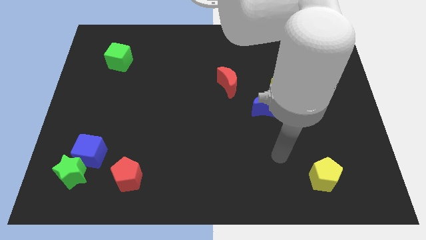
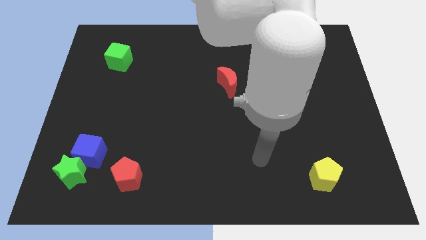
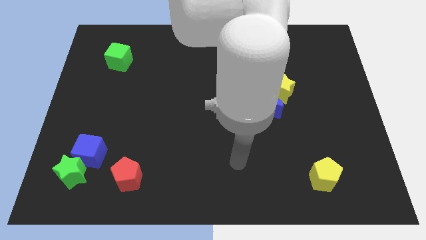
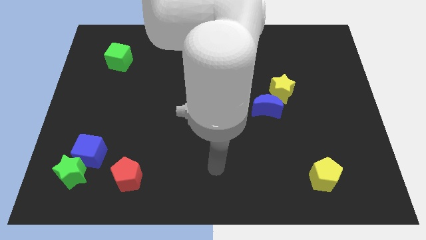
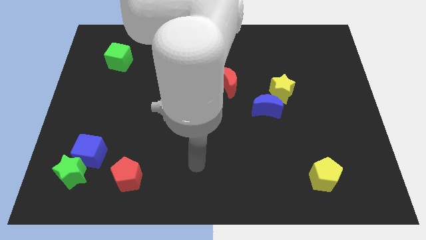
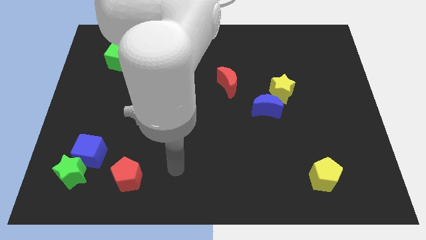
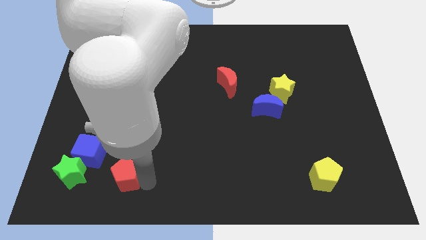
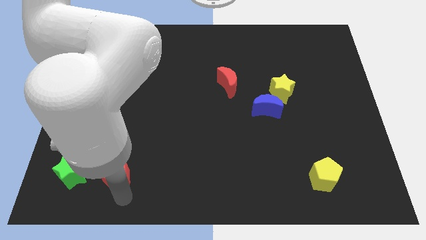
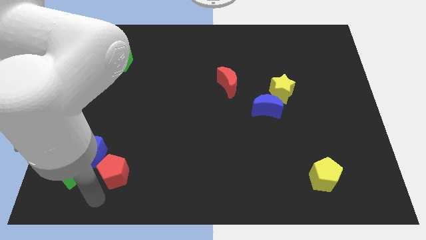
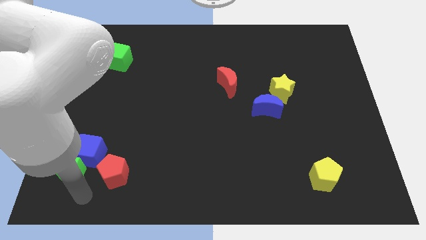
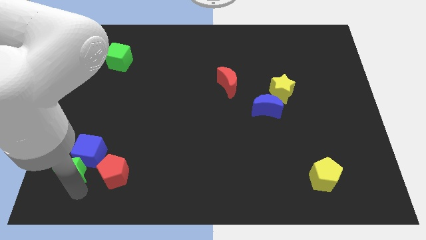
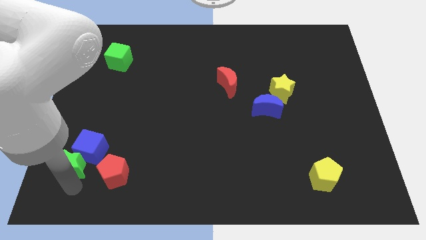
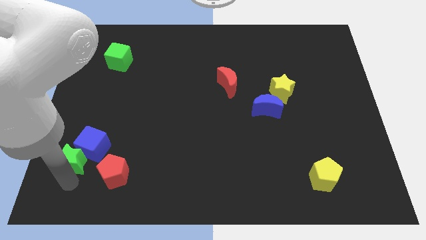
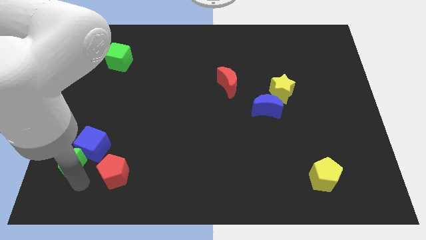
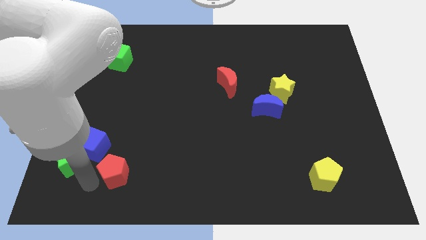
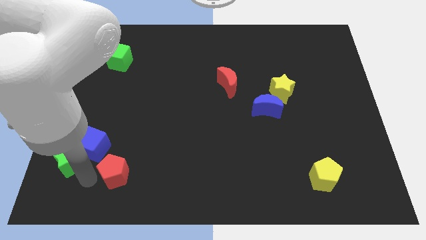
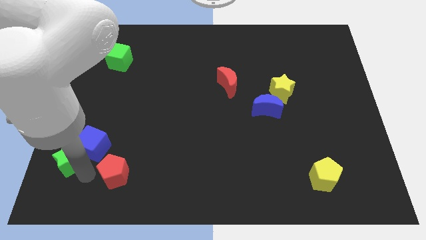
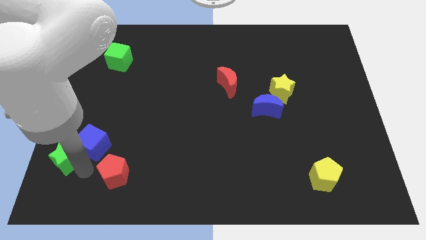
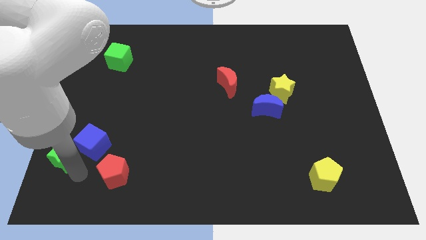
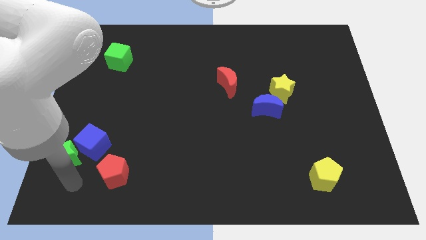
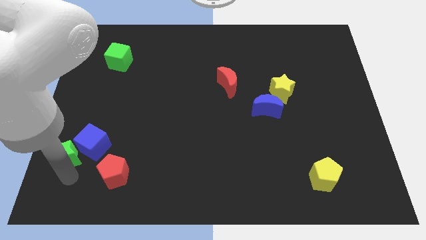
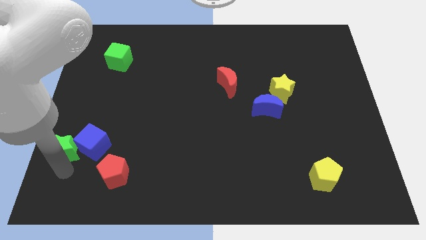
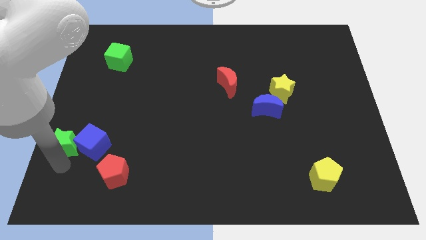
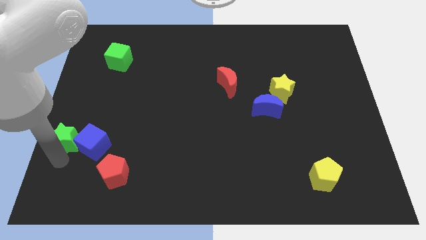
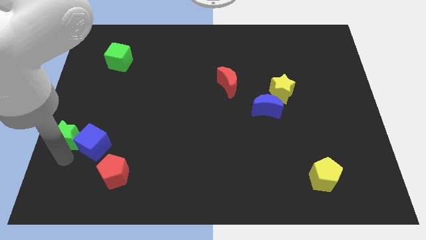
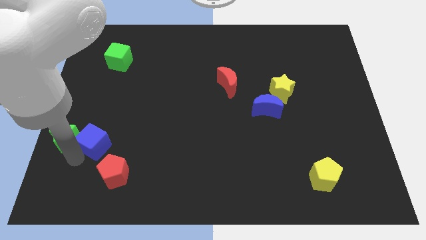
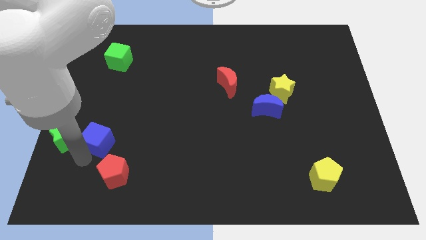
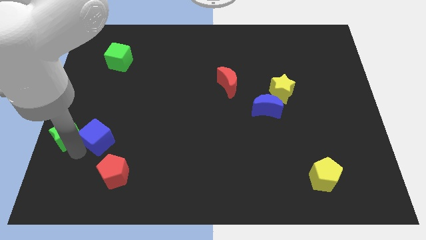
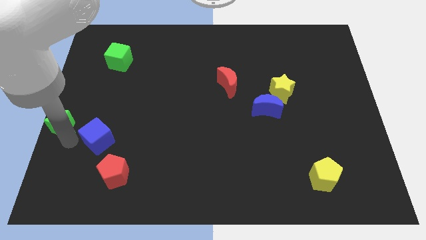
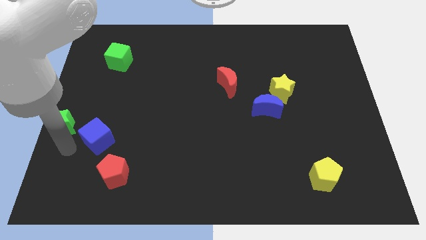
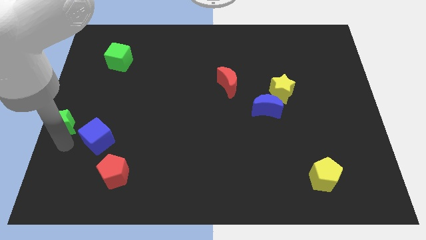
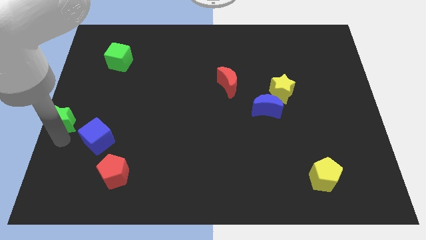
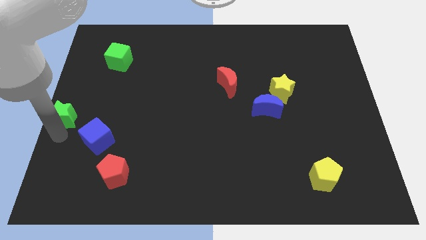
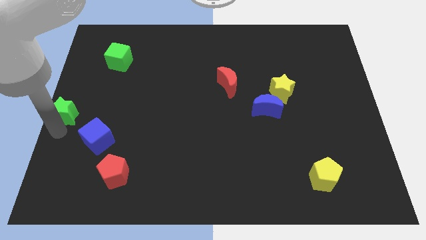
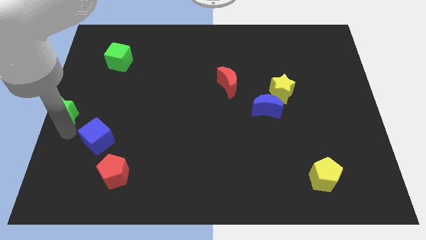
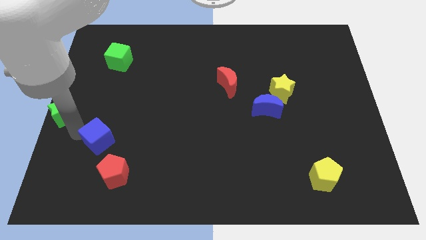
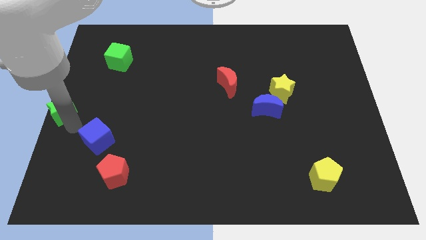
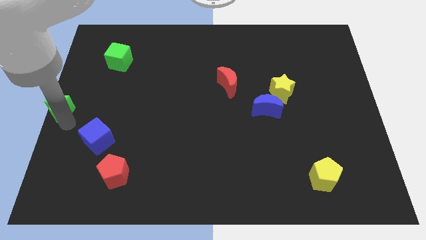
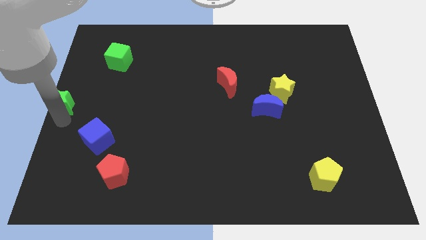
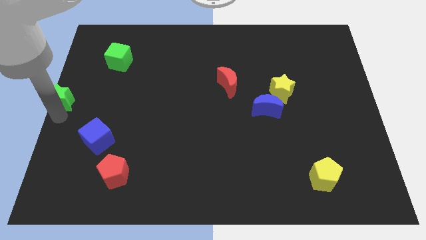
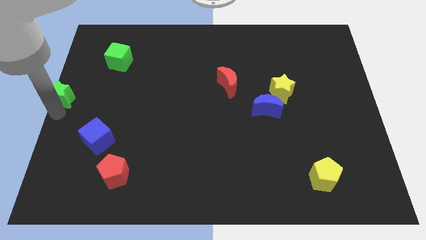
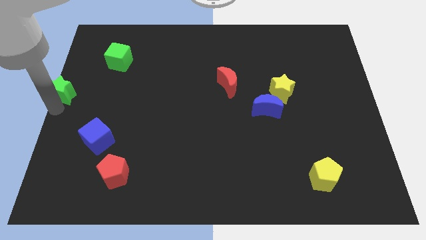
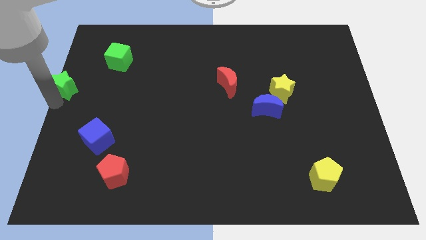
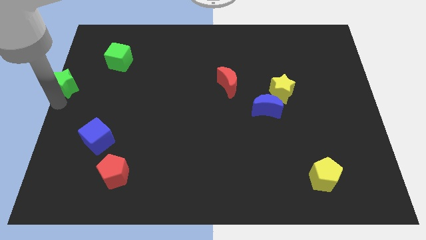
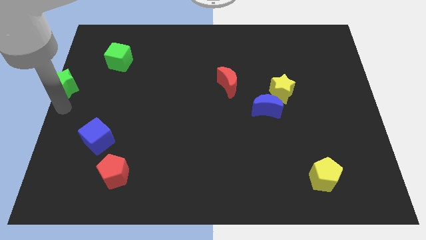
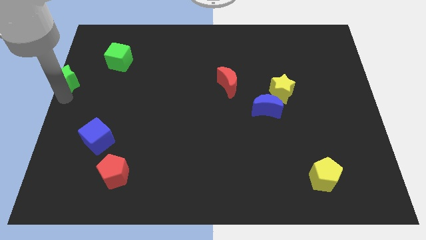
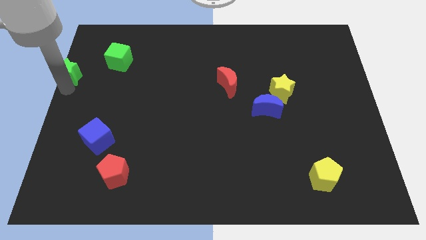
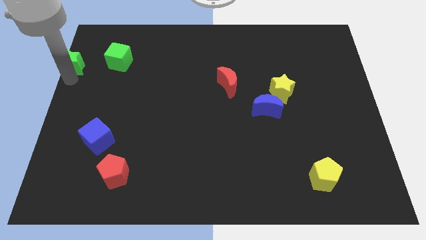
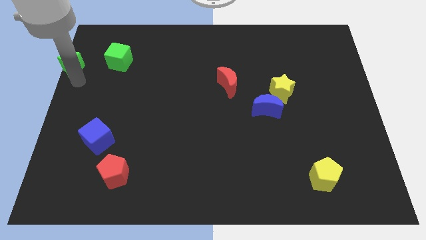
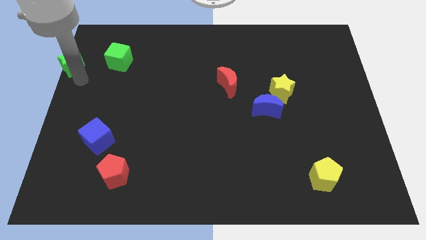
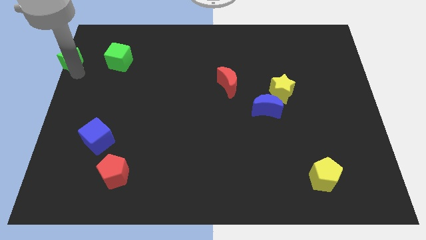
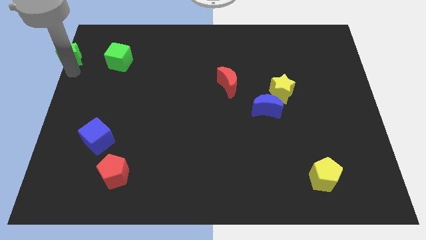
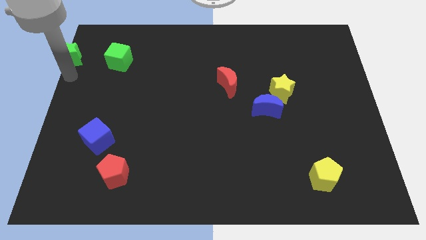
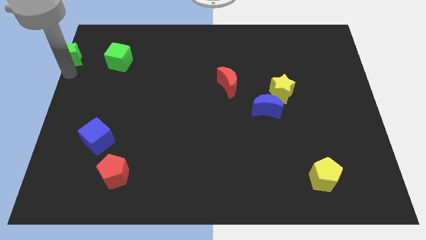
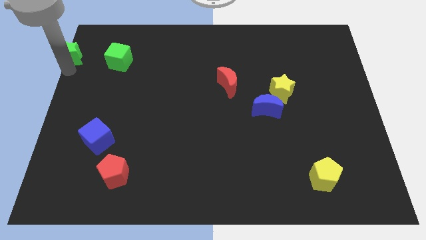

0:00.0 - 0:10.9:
move the green star to the top left corner

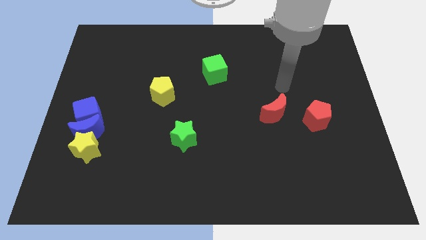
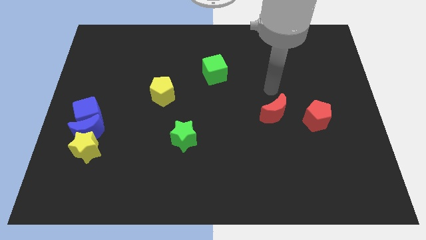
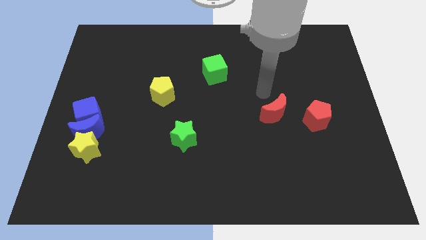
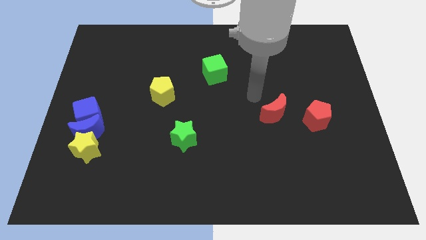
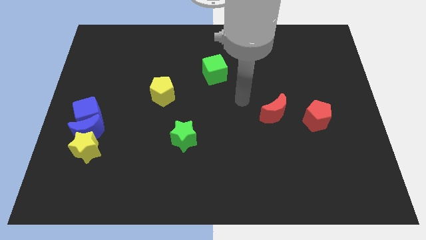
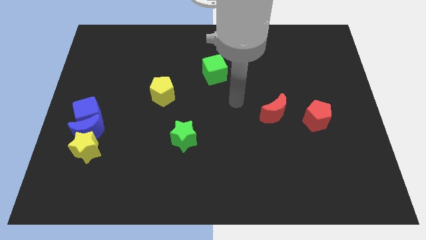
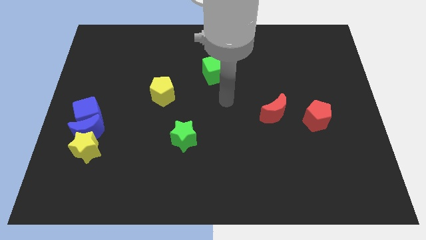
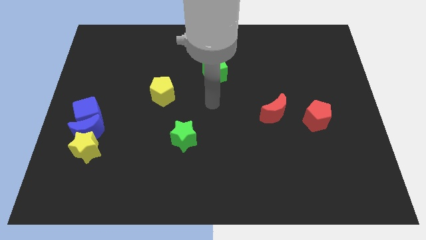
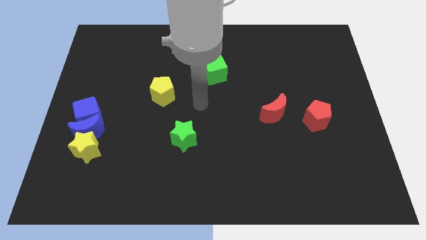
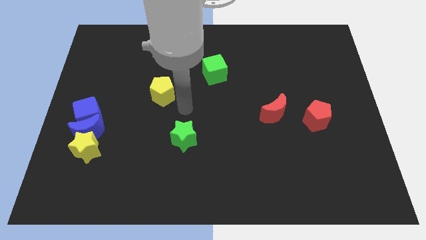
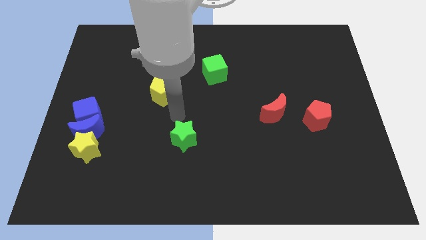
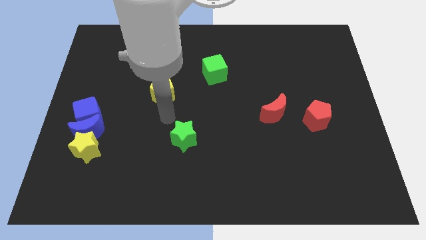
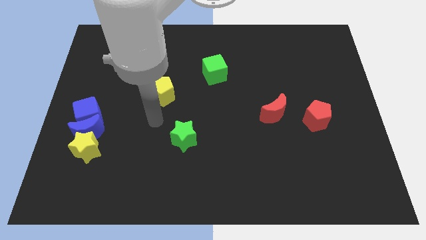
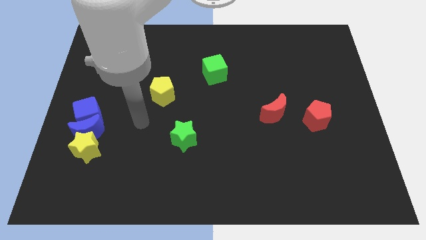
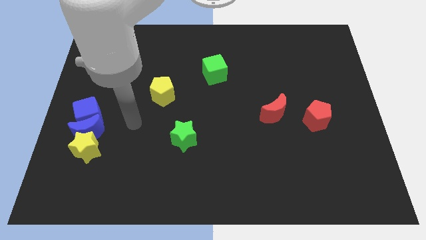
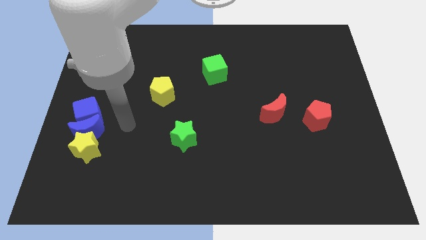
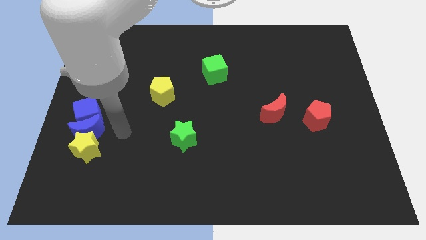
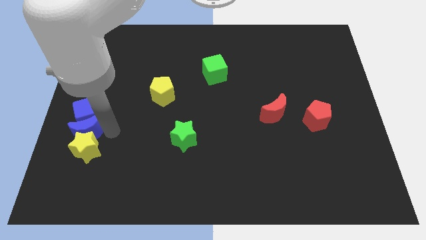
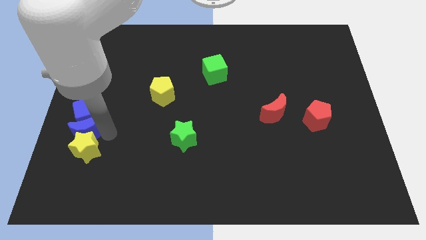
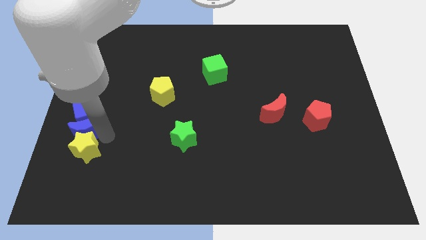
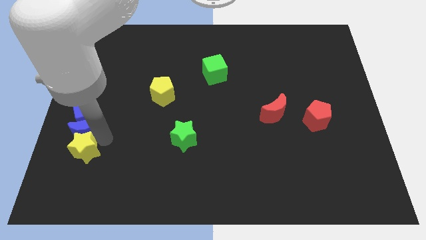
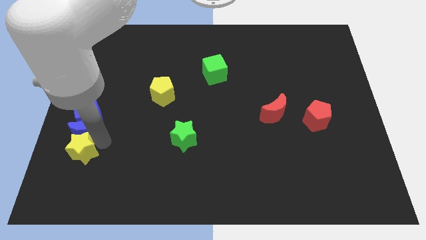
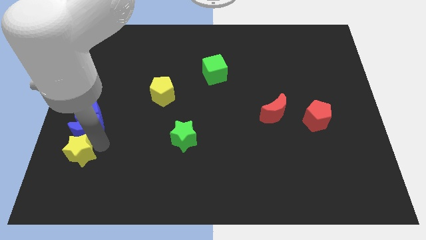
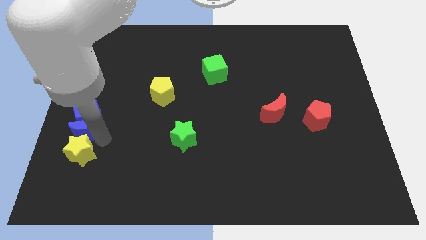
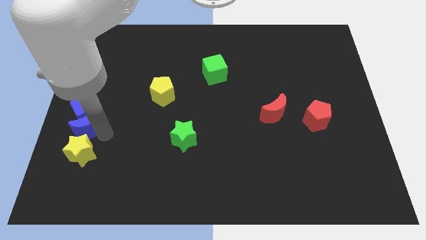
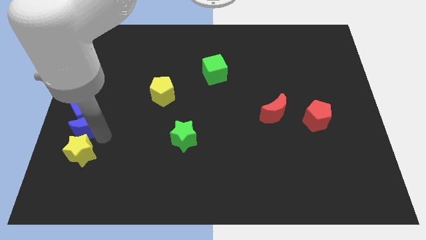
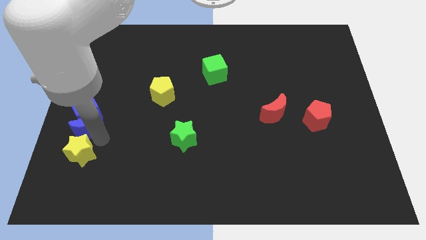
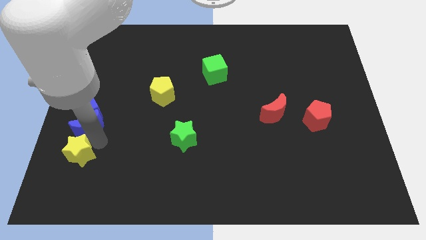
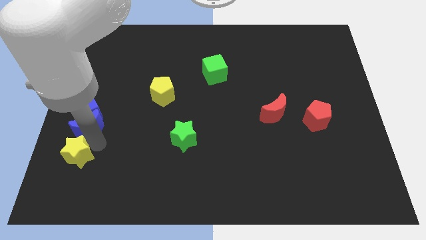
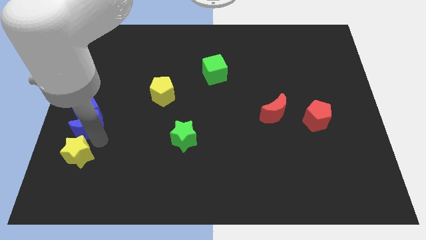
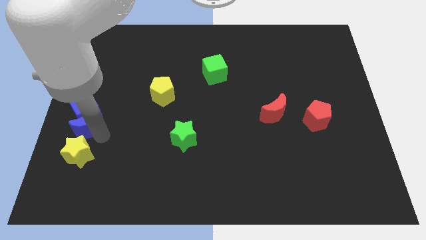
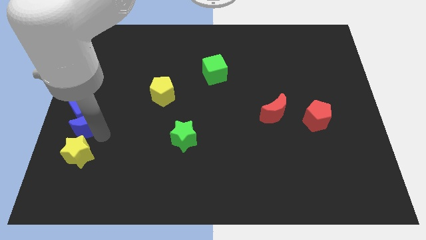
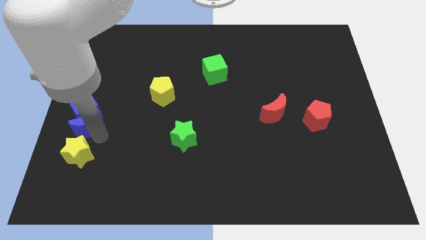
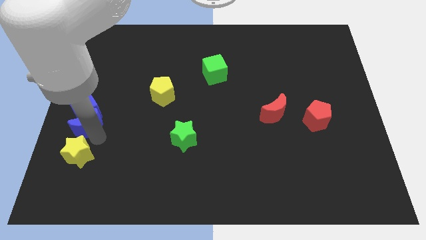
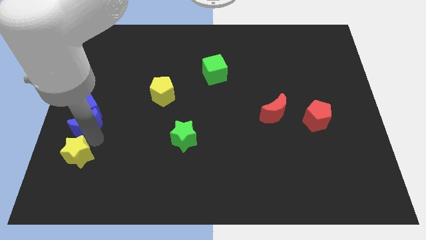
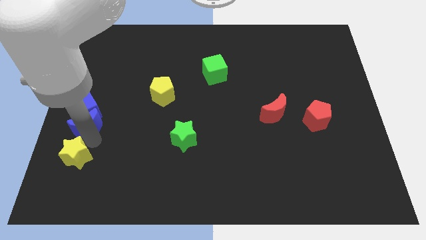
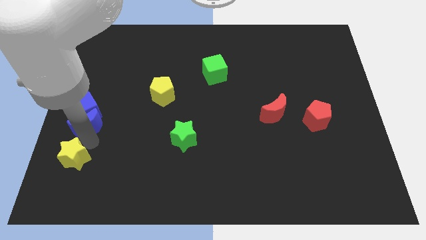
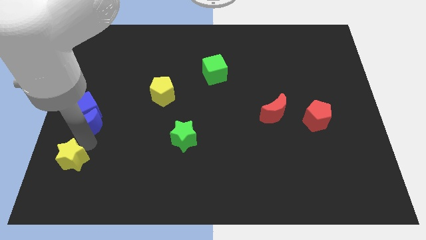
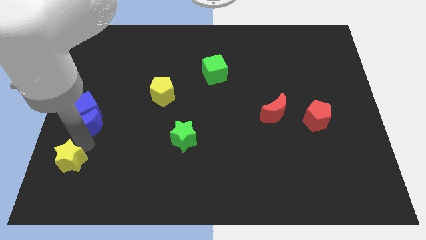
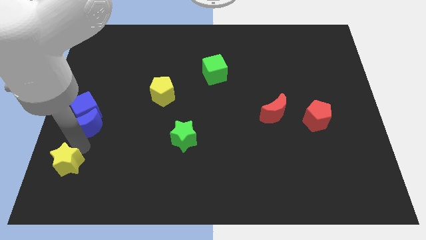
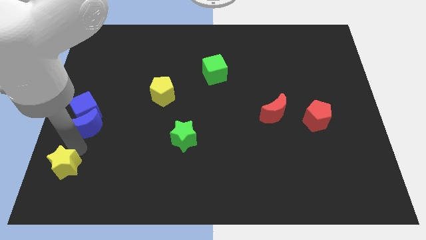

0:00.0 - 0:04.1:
slide the yellow star to the bottom left
